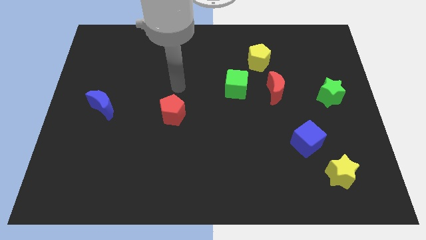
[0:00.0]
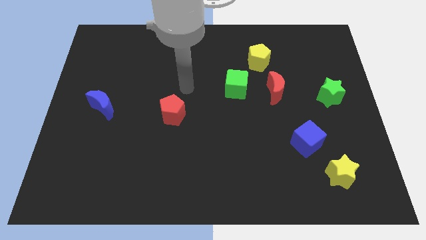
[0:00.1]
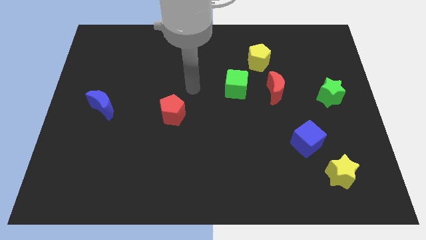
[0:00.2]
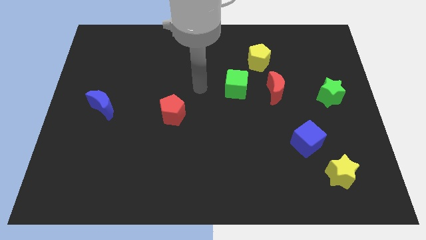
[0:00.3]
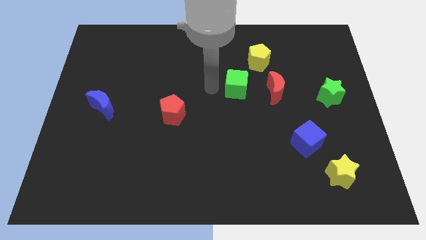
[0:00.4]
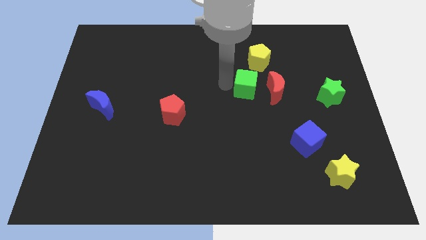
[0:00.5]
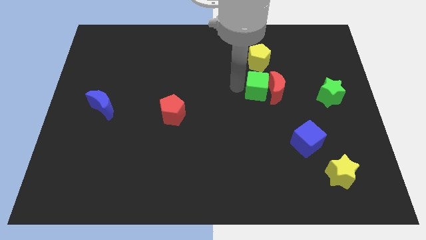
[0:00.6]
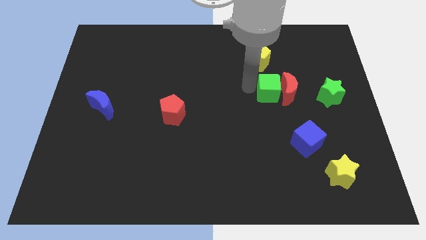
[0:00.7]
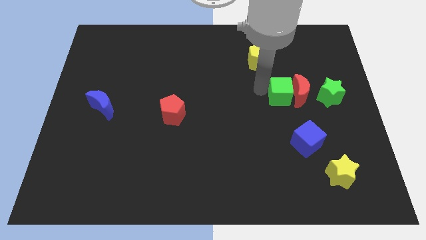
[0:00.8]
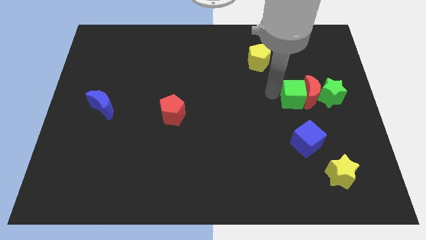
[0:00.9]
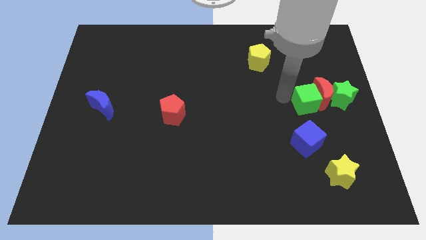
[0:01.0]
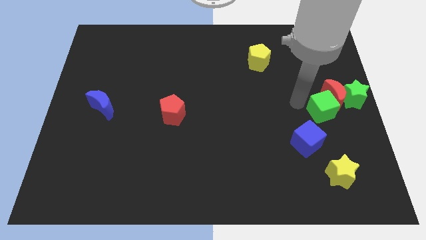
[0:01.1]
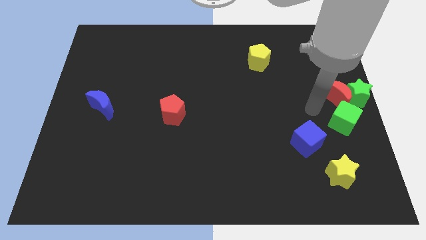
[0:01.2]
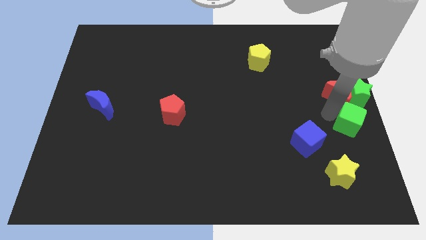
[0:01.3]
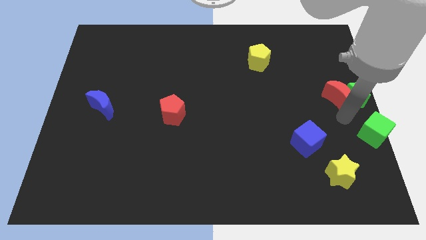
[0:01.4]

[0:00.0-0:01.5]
separate the red moon from the green cube

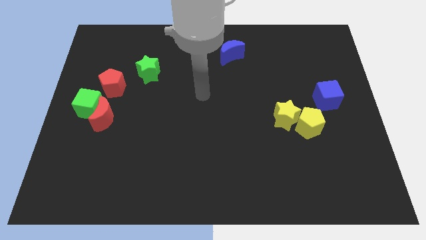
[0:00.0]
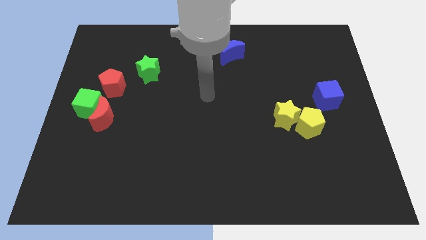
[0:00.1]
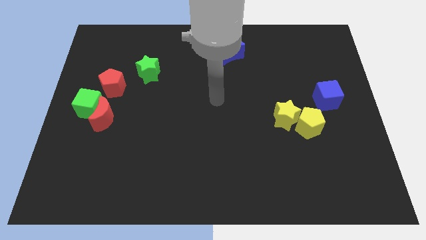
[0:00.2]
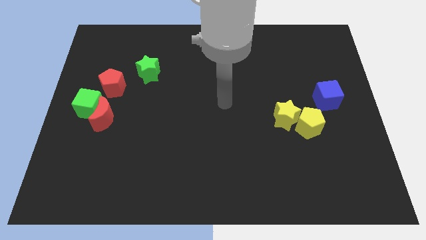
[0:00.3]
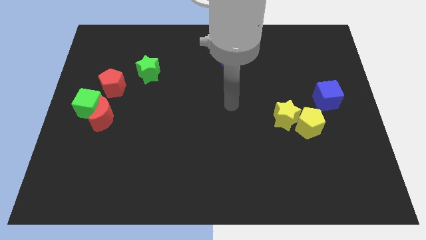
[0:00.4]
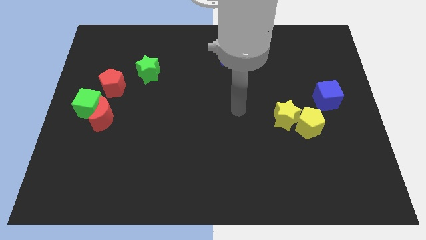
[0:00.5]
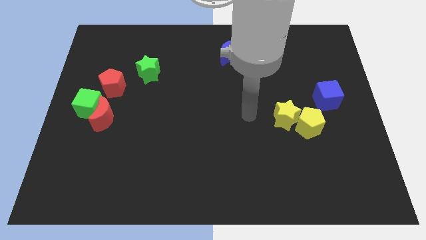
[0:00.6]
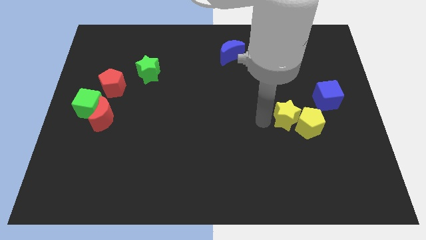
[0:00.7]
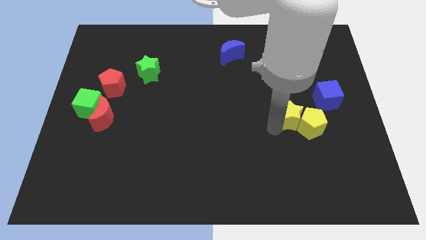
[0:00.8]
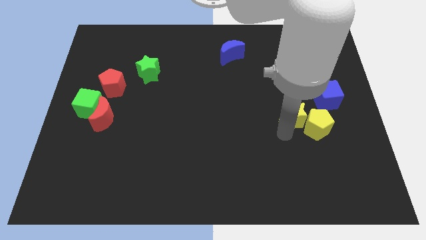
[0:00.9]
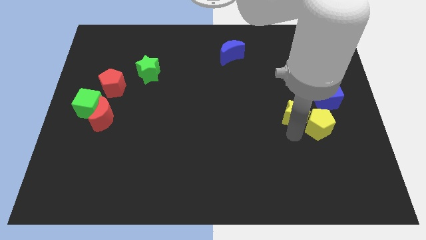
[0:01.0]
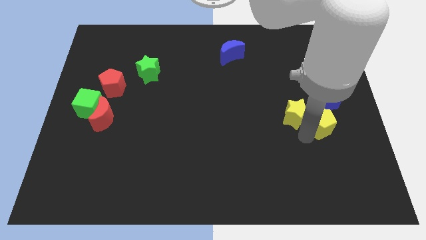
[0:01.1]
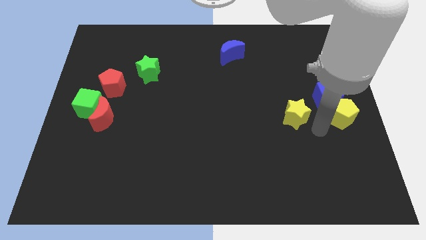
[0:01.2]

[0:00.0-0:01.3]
pull the yellow star apart from the yellow pentagon

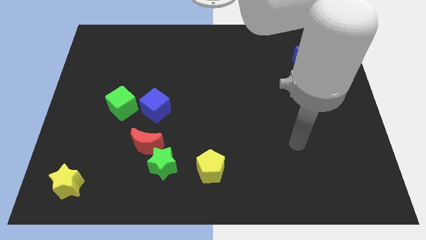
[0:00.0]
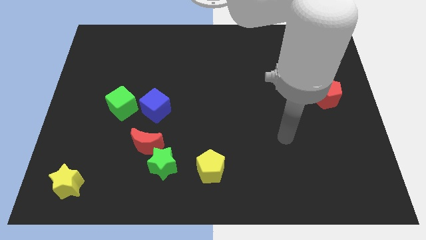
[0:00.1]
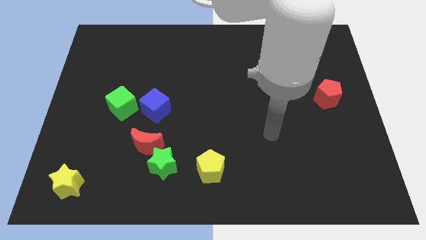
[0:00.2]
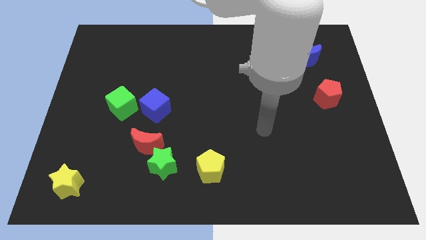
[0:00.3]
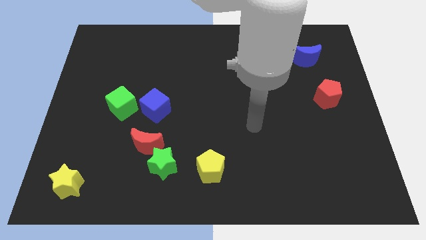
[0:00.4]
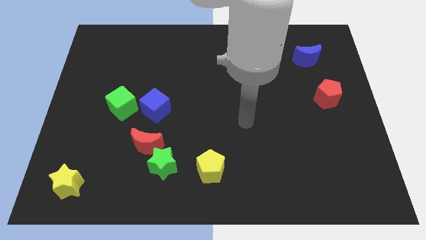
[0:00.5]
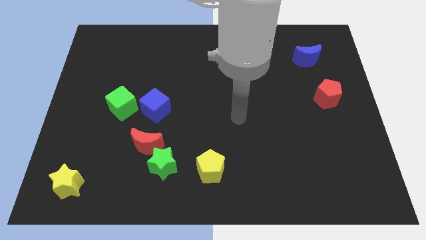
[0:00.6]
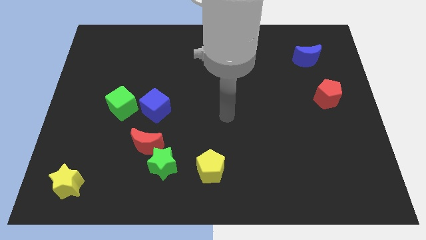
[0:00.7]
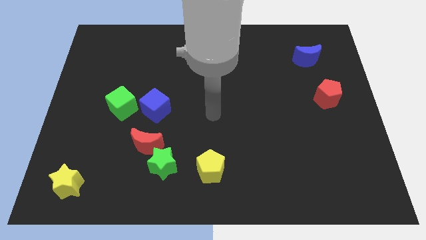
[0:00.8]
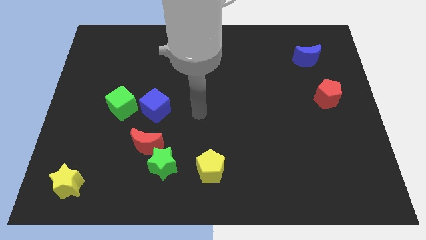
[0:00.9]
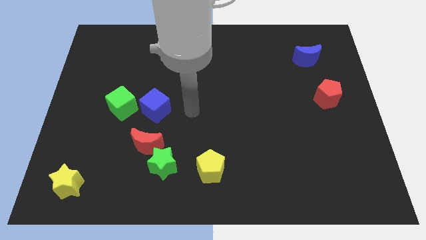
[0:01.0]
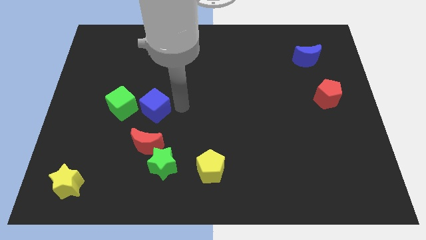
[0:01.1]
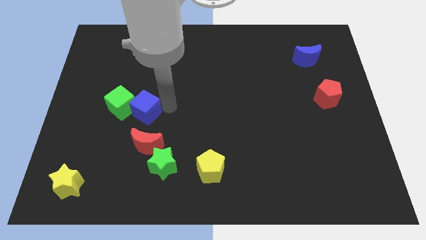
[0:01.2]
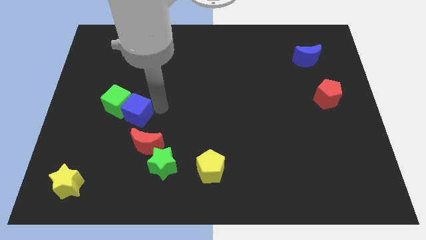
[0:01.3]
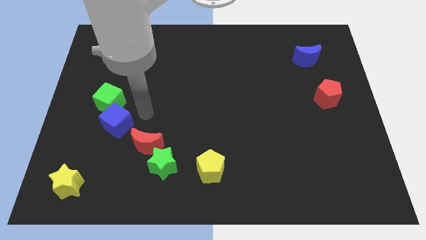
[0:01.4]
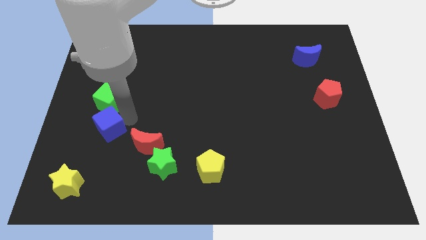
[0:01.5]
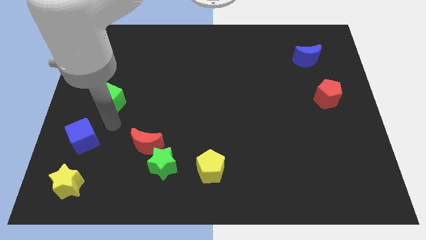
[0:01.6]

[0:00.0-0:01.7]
move the green cube away from the blue cube

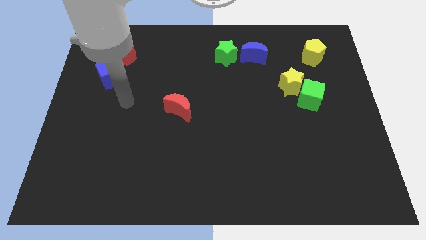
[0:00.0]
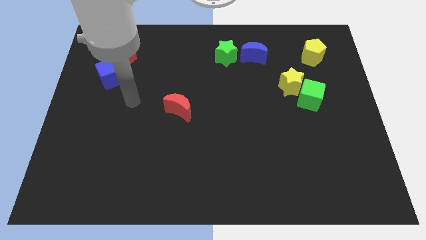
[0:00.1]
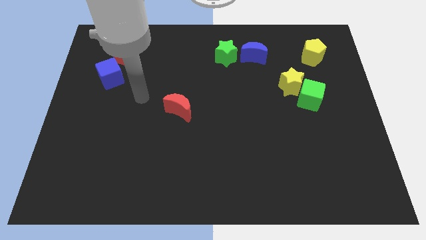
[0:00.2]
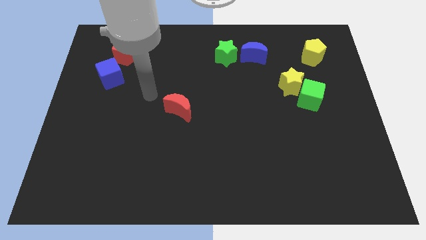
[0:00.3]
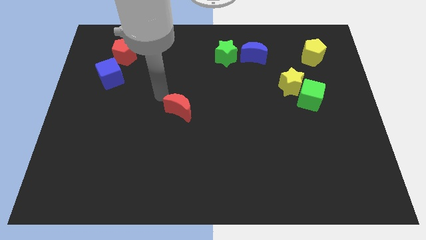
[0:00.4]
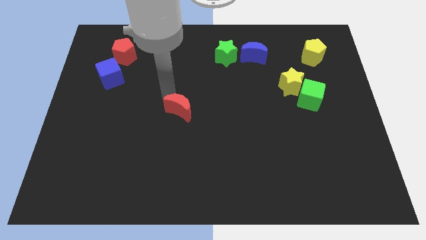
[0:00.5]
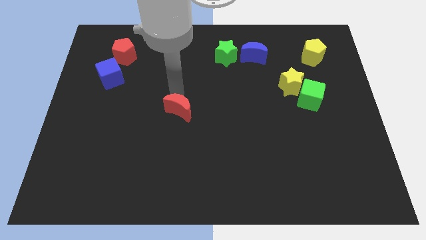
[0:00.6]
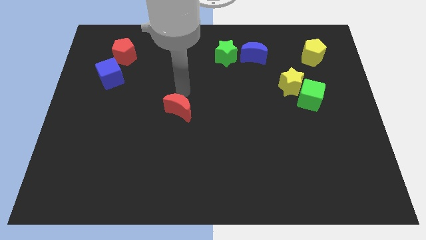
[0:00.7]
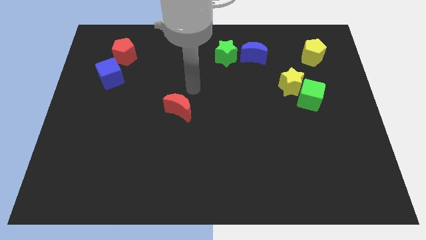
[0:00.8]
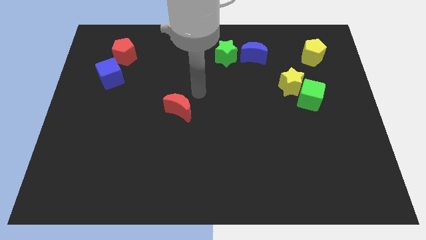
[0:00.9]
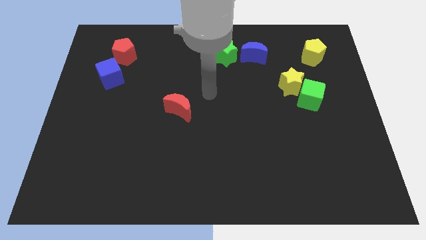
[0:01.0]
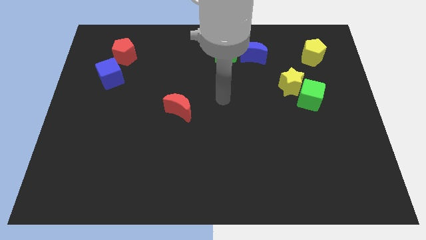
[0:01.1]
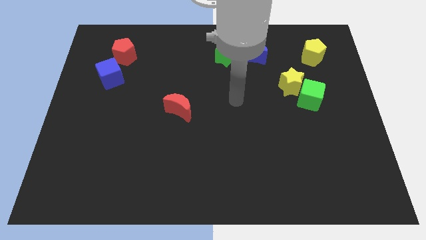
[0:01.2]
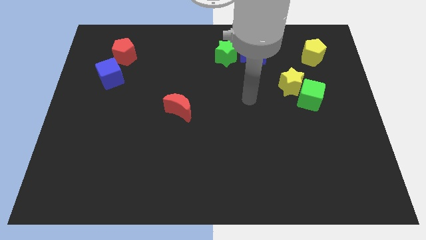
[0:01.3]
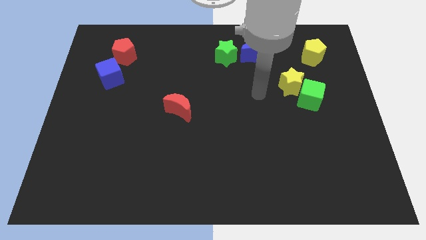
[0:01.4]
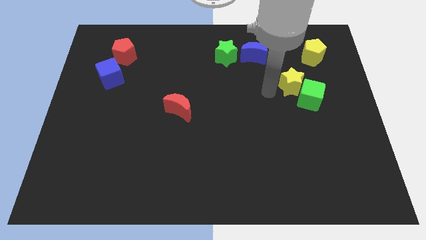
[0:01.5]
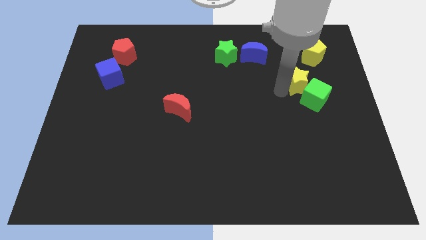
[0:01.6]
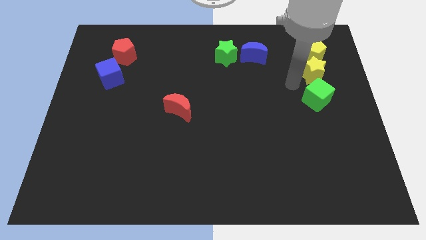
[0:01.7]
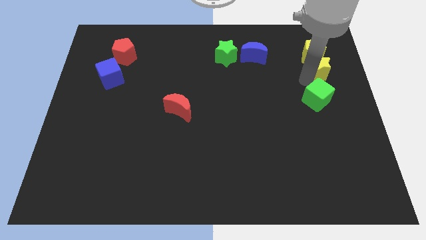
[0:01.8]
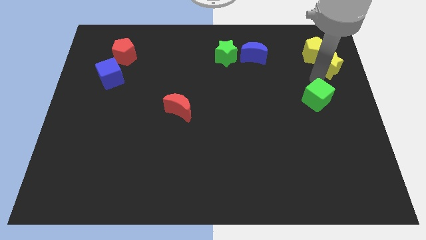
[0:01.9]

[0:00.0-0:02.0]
move the green cube away from the yellow star

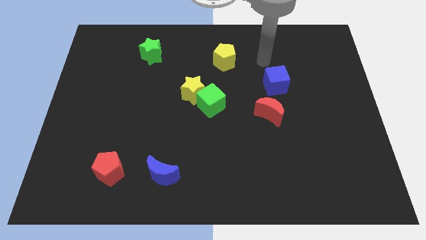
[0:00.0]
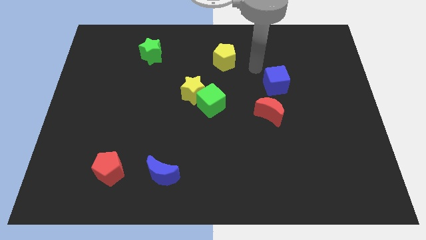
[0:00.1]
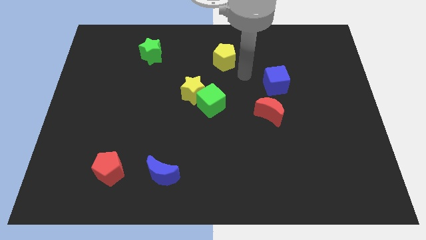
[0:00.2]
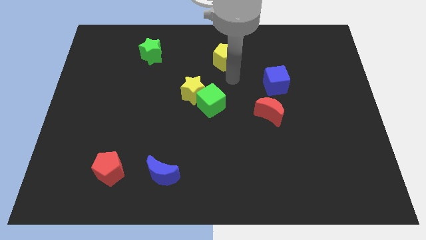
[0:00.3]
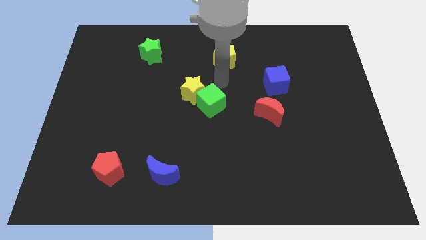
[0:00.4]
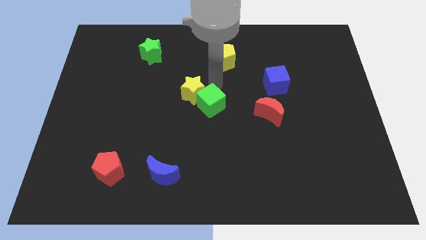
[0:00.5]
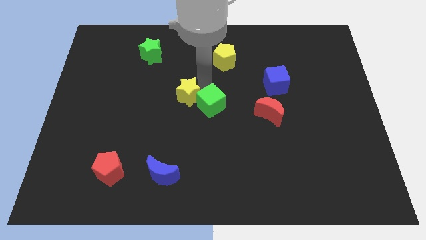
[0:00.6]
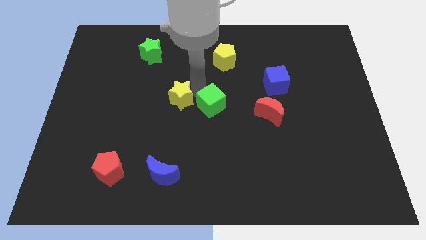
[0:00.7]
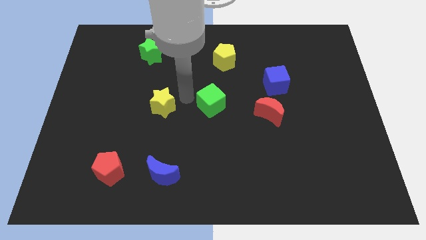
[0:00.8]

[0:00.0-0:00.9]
pull the green cube apart from the yellow star

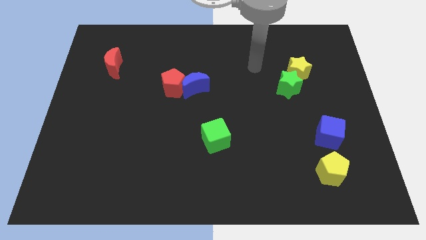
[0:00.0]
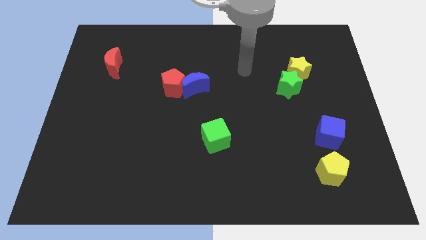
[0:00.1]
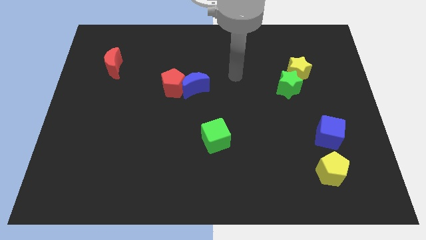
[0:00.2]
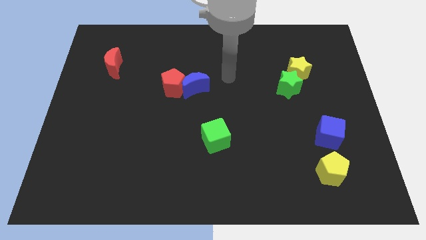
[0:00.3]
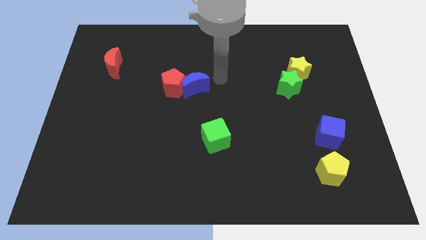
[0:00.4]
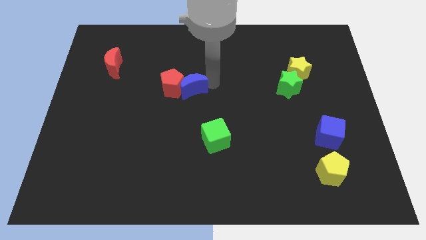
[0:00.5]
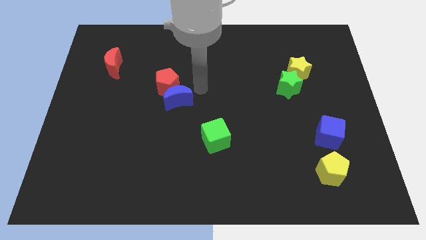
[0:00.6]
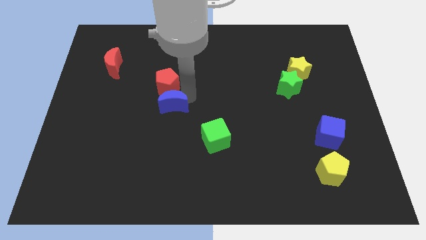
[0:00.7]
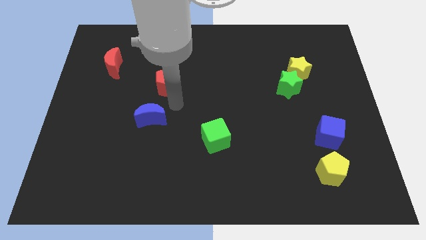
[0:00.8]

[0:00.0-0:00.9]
separate the red pentagon from the blue moon

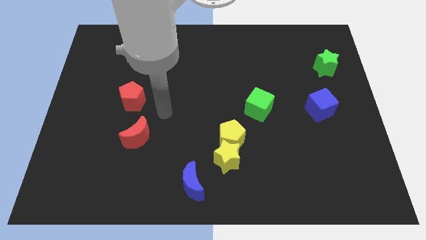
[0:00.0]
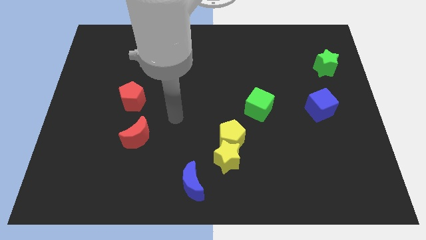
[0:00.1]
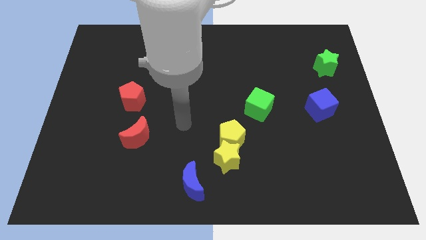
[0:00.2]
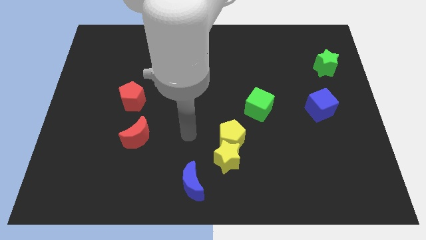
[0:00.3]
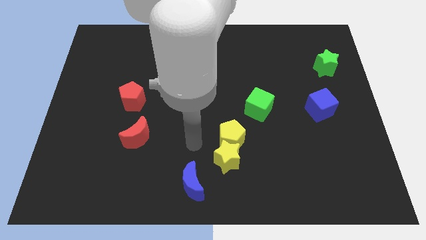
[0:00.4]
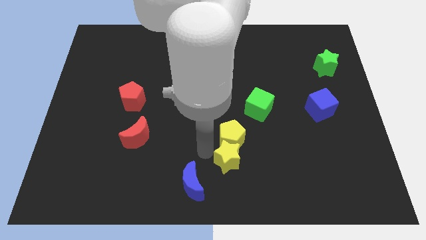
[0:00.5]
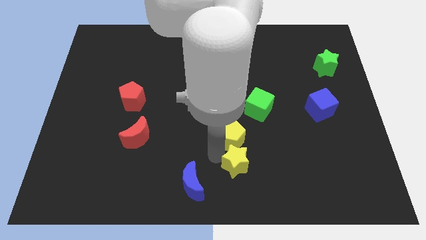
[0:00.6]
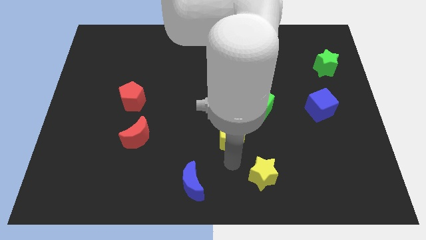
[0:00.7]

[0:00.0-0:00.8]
pull the yellow pentagon apart from the yellow star

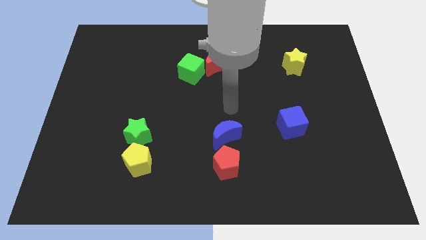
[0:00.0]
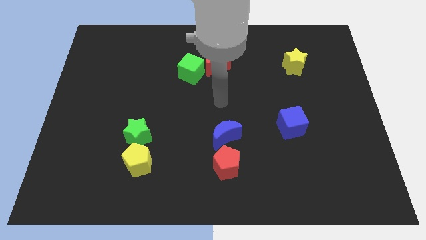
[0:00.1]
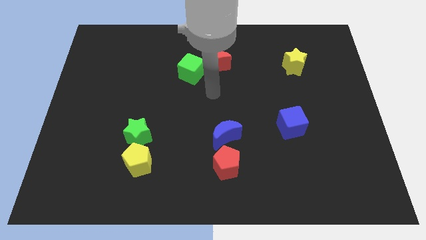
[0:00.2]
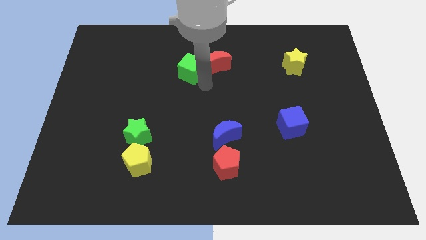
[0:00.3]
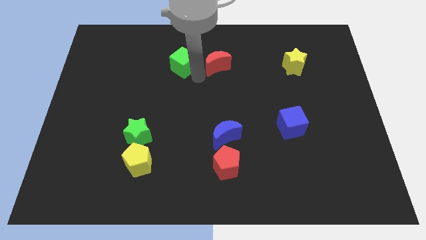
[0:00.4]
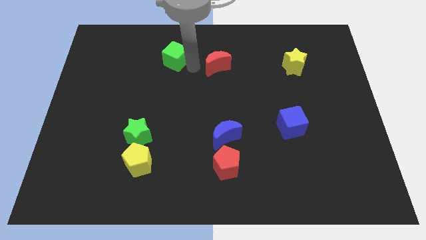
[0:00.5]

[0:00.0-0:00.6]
move the red moon away from the green cube
